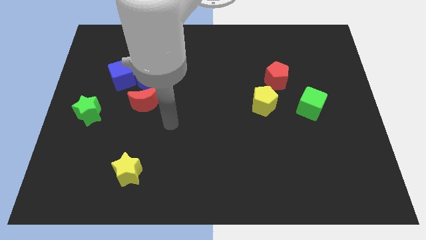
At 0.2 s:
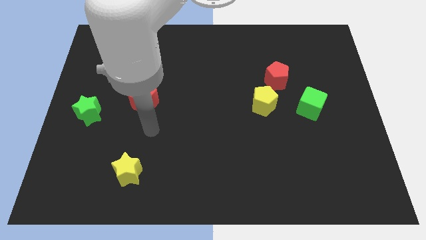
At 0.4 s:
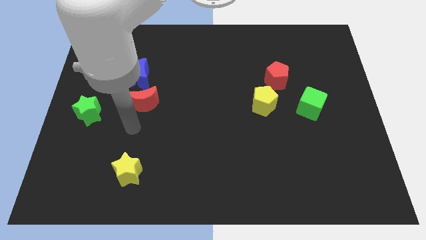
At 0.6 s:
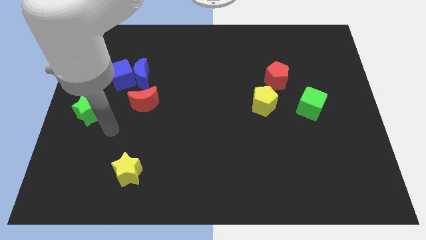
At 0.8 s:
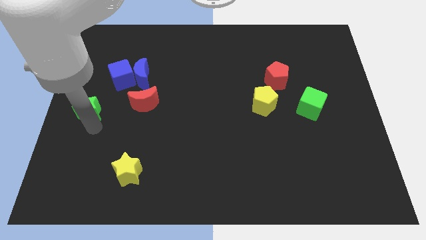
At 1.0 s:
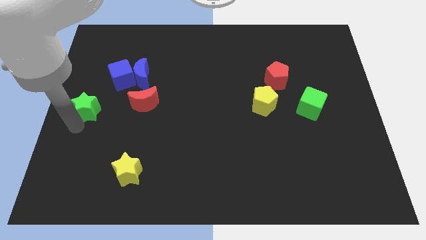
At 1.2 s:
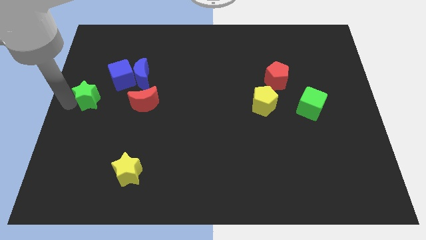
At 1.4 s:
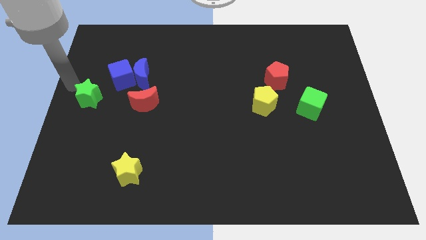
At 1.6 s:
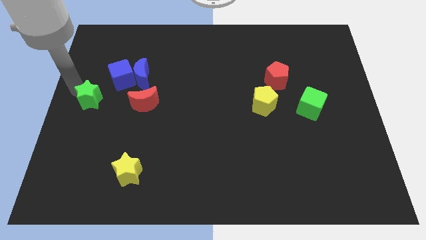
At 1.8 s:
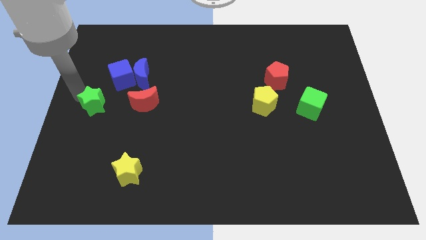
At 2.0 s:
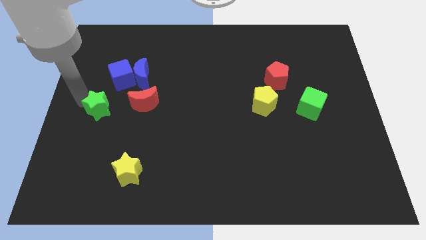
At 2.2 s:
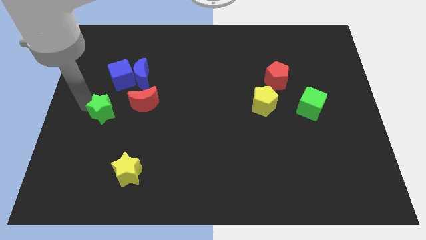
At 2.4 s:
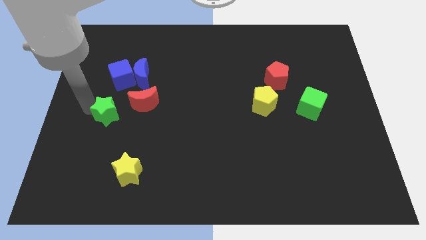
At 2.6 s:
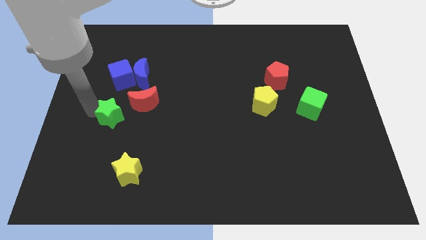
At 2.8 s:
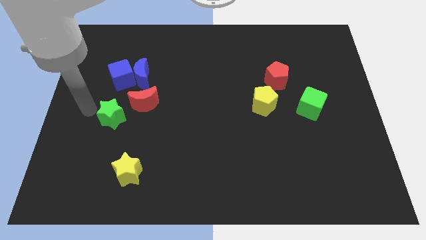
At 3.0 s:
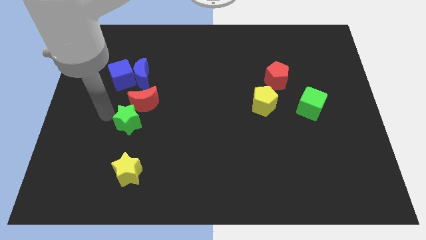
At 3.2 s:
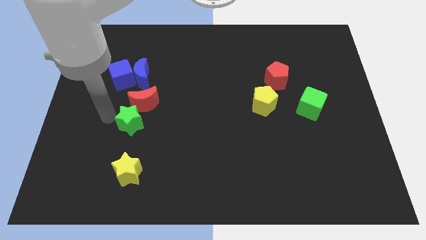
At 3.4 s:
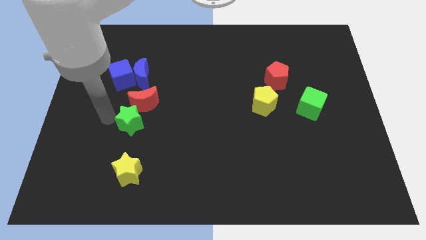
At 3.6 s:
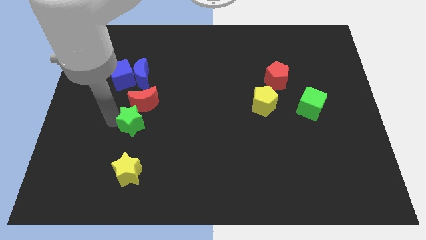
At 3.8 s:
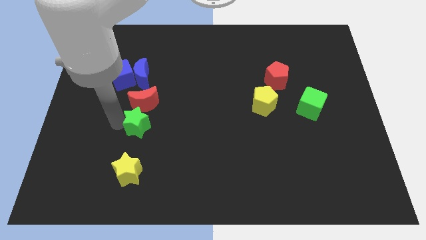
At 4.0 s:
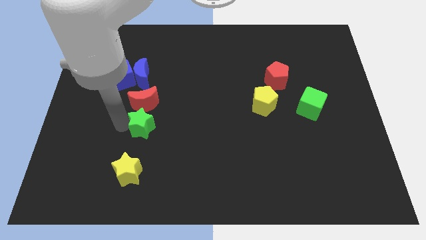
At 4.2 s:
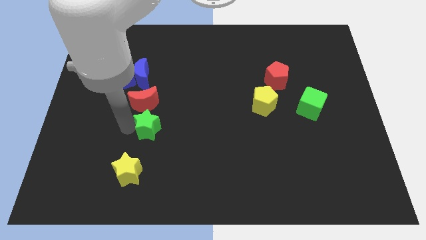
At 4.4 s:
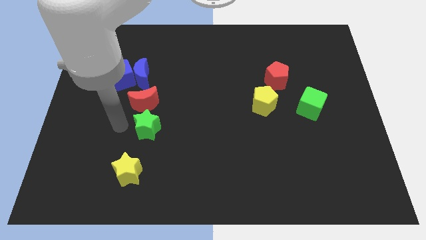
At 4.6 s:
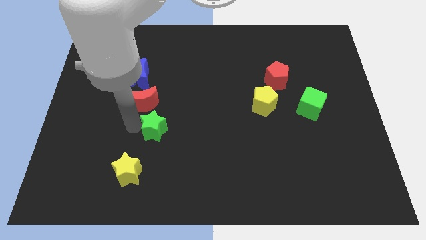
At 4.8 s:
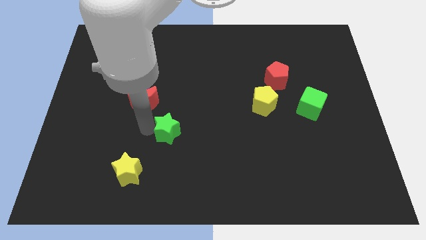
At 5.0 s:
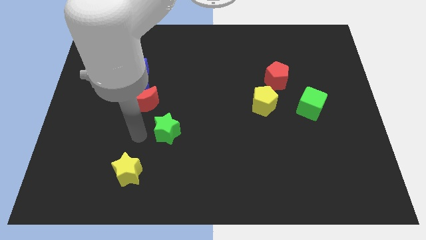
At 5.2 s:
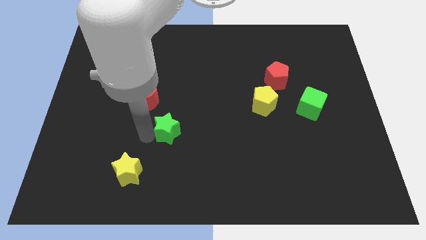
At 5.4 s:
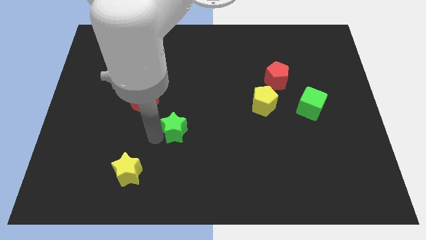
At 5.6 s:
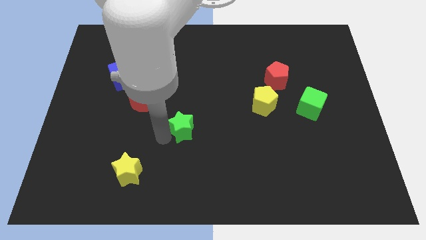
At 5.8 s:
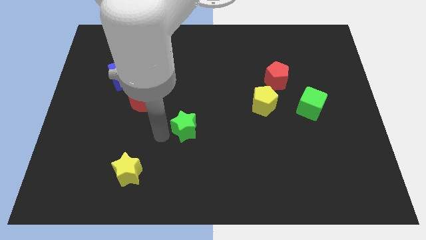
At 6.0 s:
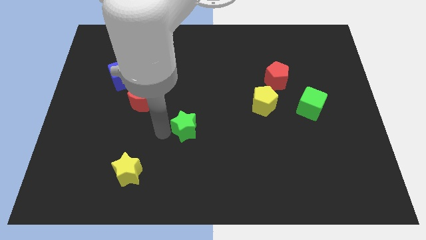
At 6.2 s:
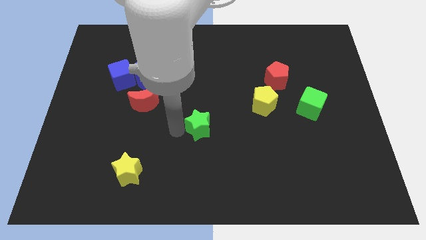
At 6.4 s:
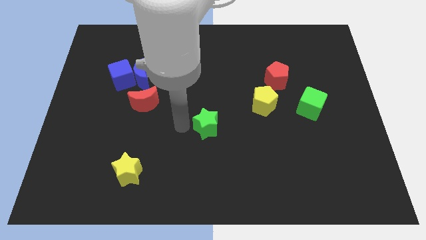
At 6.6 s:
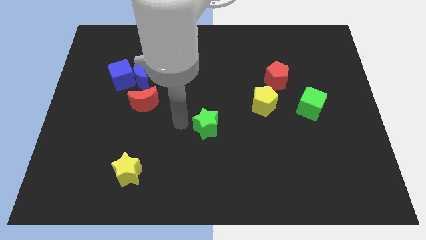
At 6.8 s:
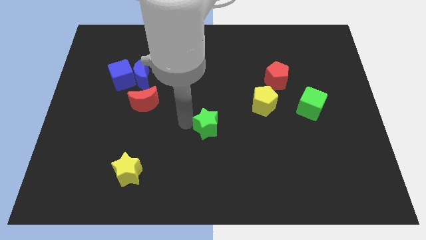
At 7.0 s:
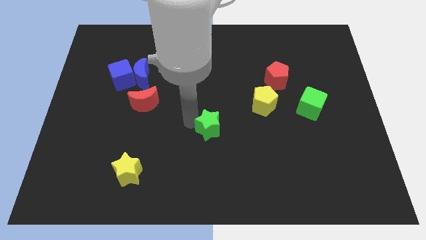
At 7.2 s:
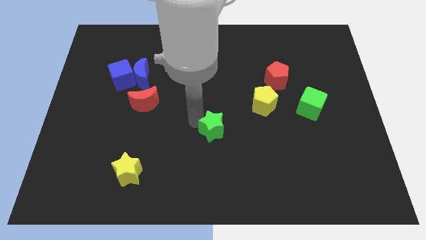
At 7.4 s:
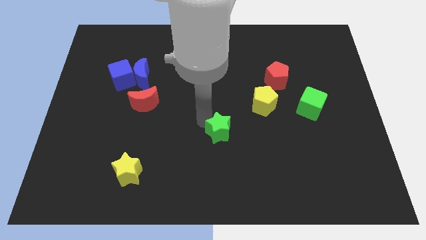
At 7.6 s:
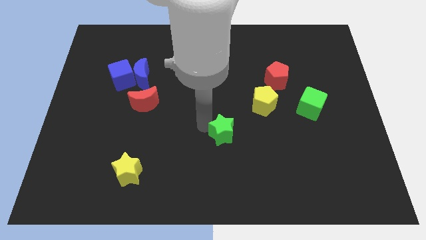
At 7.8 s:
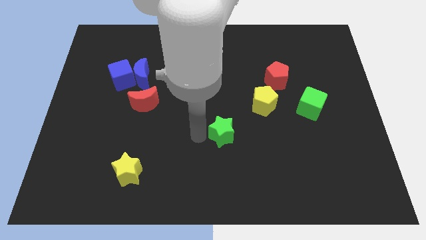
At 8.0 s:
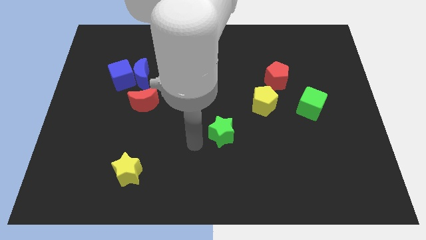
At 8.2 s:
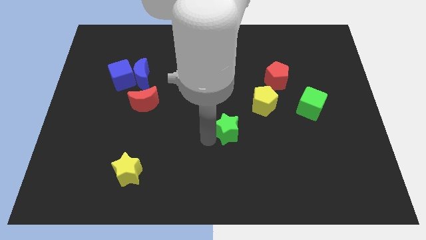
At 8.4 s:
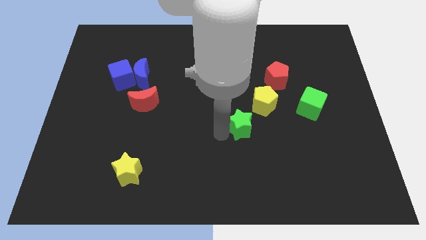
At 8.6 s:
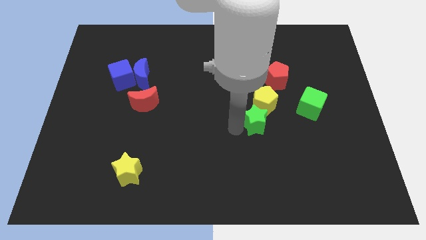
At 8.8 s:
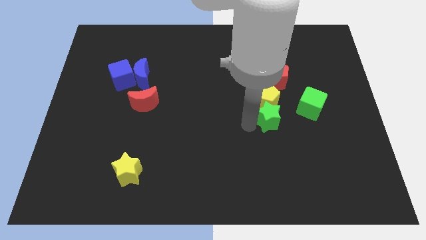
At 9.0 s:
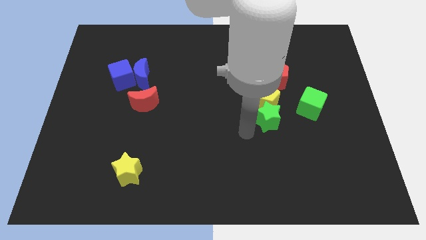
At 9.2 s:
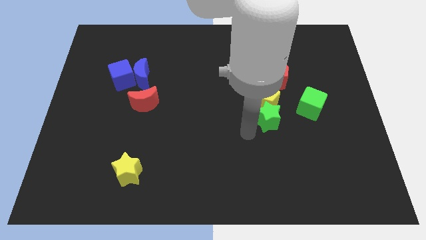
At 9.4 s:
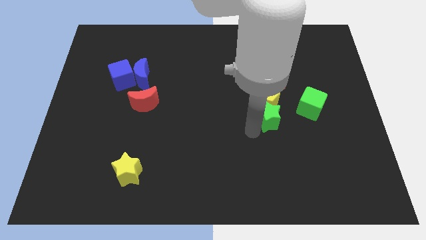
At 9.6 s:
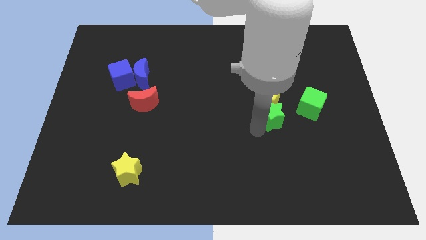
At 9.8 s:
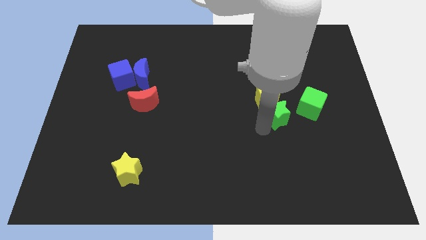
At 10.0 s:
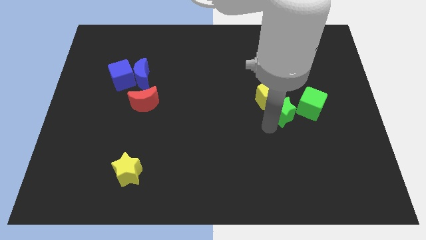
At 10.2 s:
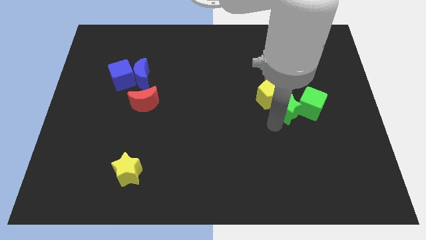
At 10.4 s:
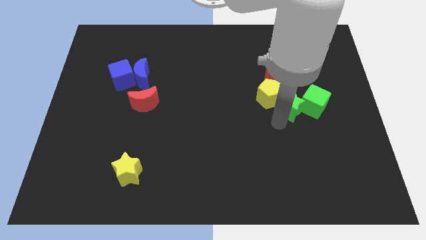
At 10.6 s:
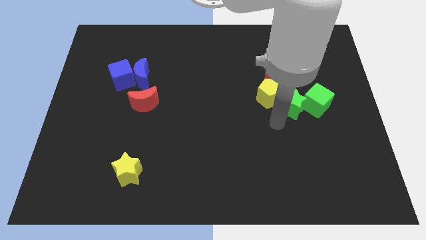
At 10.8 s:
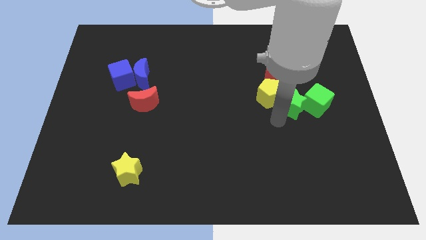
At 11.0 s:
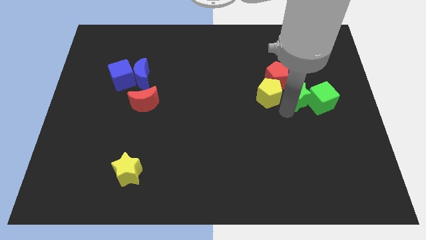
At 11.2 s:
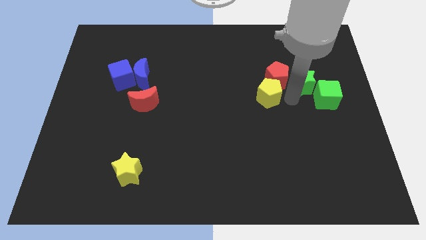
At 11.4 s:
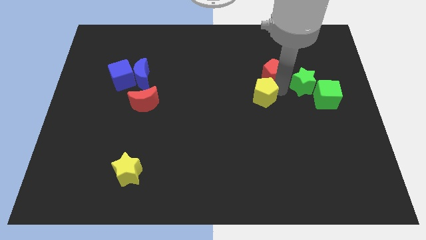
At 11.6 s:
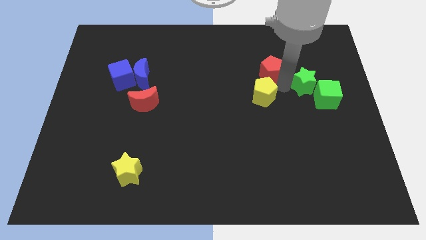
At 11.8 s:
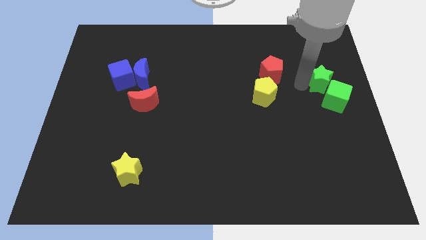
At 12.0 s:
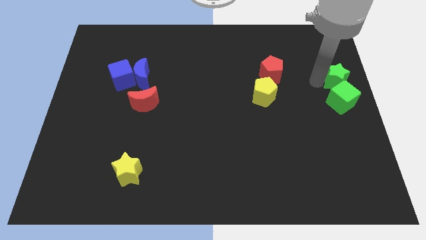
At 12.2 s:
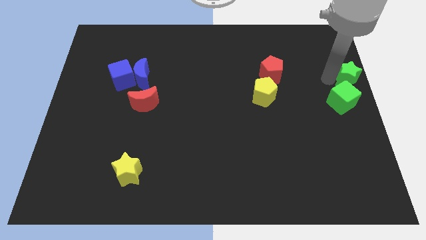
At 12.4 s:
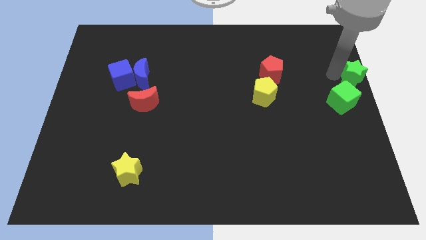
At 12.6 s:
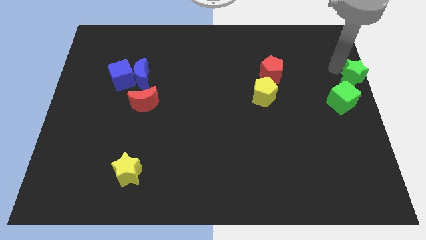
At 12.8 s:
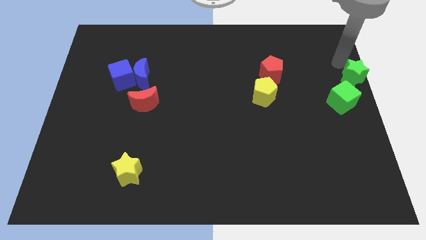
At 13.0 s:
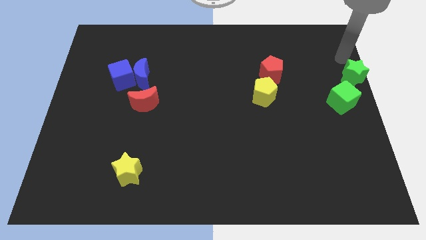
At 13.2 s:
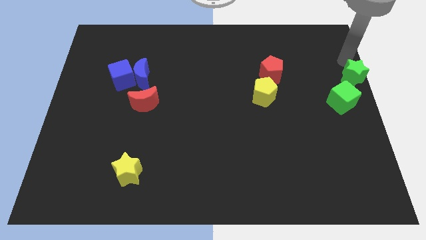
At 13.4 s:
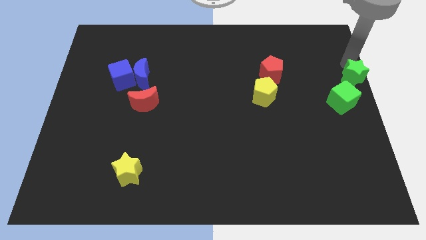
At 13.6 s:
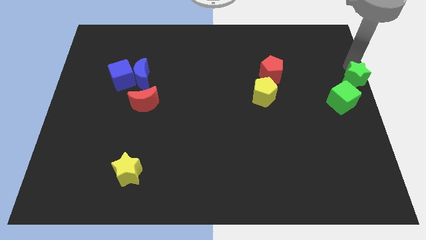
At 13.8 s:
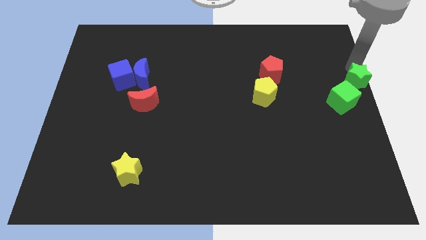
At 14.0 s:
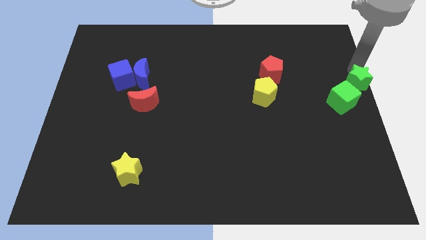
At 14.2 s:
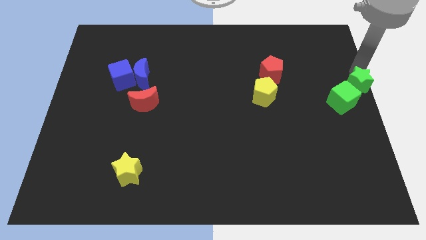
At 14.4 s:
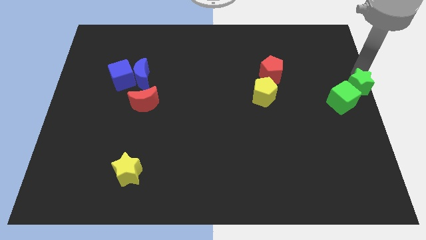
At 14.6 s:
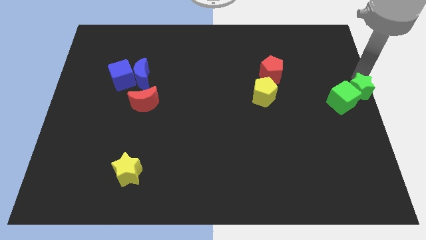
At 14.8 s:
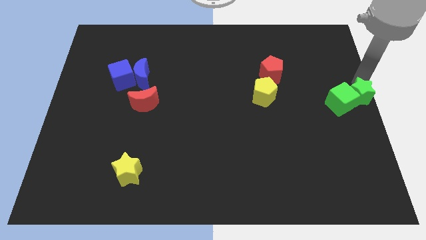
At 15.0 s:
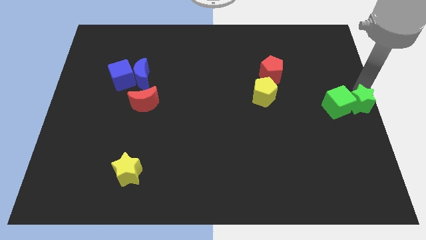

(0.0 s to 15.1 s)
move the green star to the top right of the green cube

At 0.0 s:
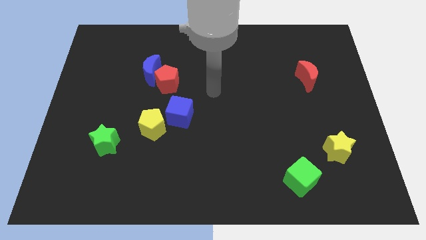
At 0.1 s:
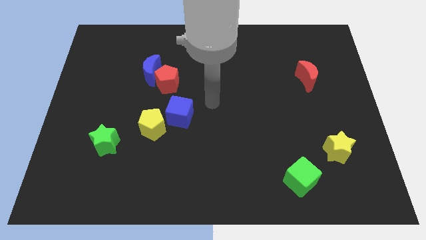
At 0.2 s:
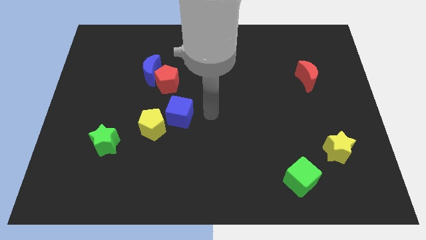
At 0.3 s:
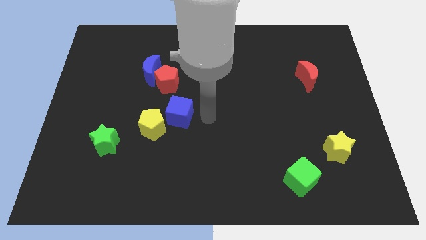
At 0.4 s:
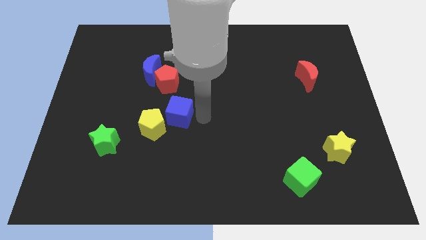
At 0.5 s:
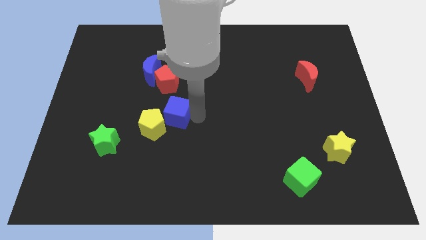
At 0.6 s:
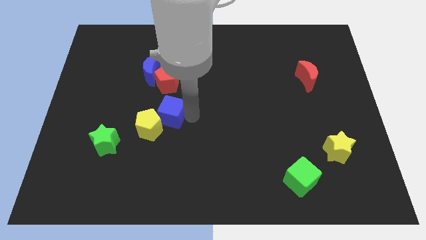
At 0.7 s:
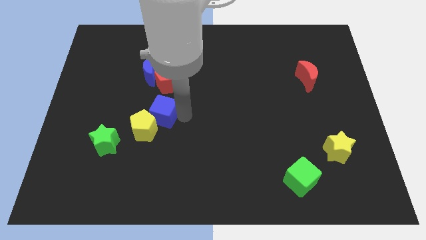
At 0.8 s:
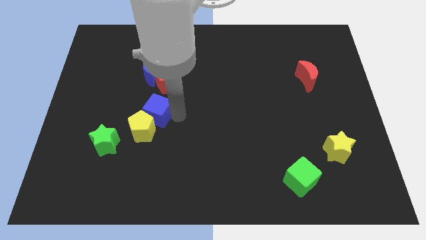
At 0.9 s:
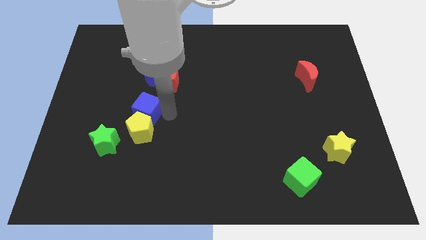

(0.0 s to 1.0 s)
move the blue cube to the top left of the yellow pentagon
